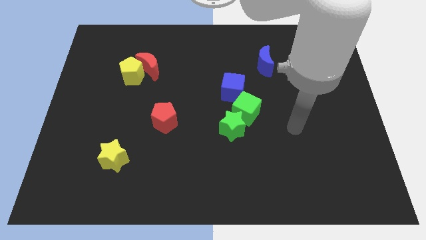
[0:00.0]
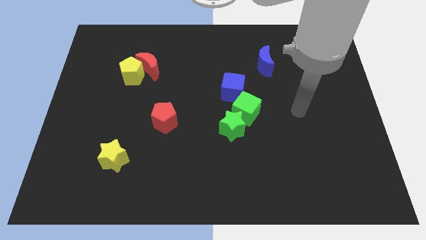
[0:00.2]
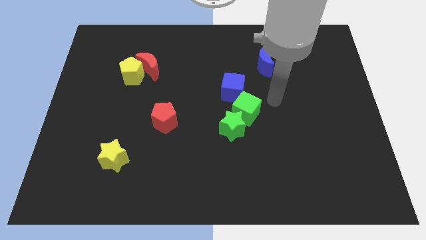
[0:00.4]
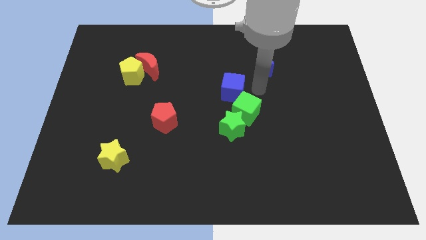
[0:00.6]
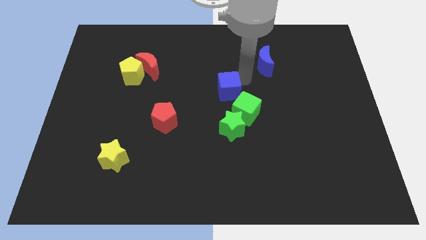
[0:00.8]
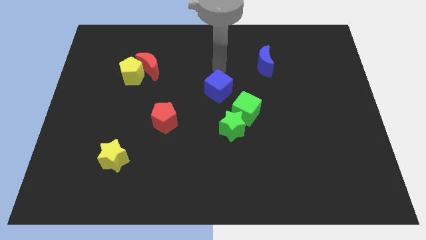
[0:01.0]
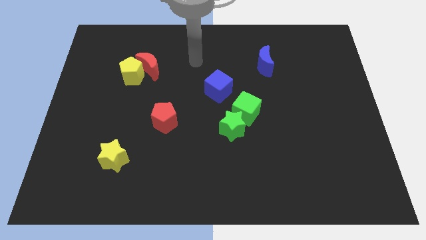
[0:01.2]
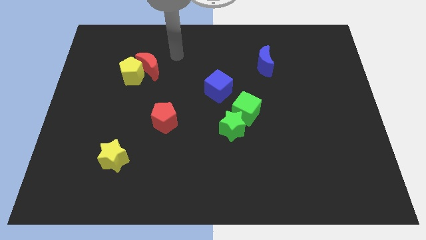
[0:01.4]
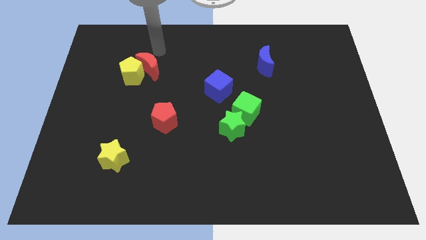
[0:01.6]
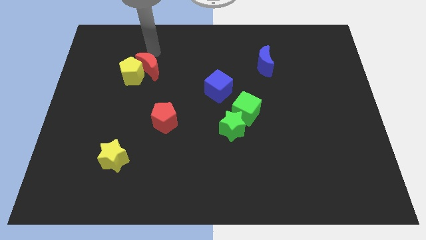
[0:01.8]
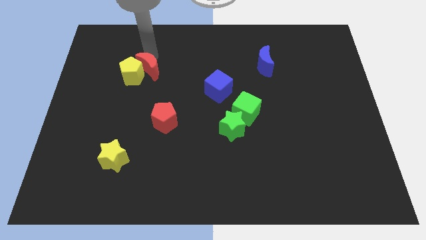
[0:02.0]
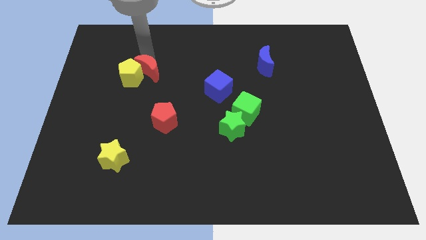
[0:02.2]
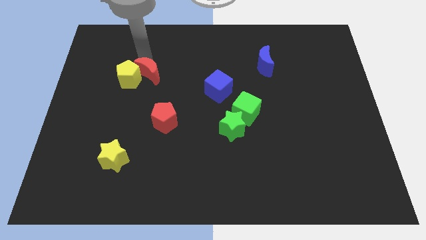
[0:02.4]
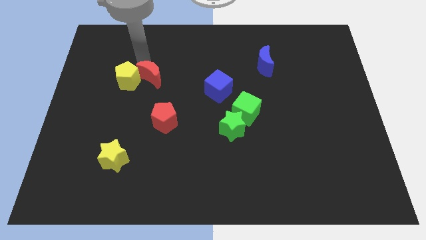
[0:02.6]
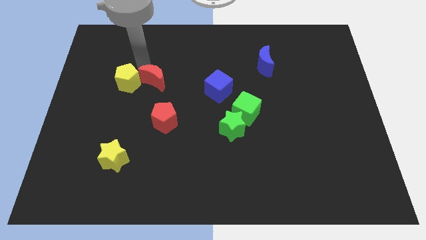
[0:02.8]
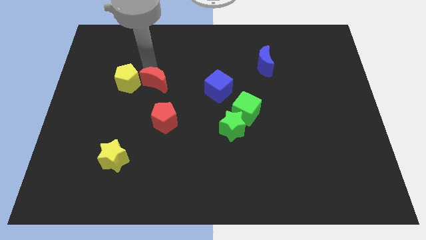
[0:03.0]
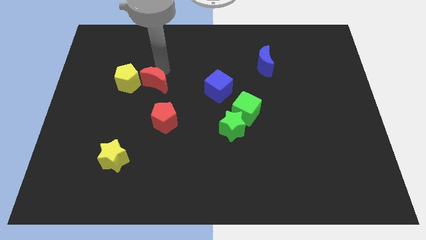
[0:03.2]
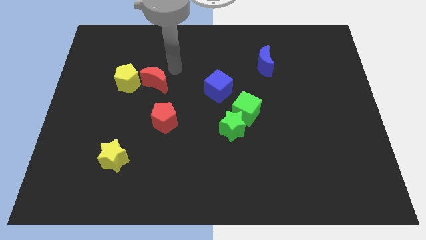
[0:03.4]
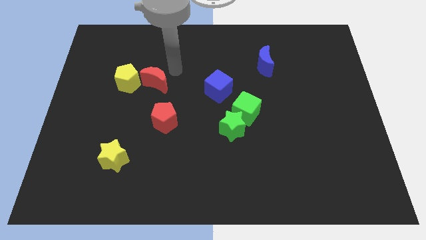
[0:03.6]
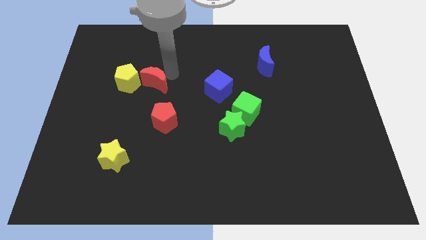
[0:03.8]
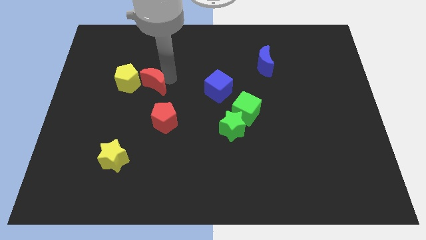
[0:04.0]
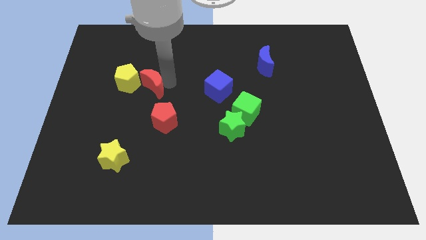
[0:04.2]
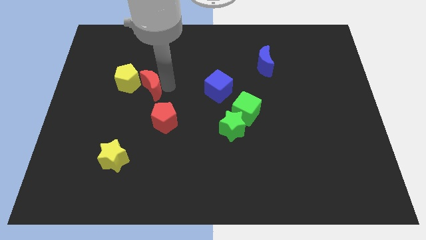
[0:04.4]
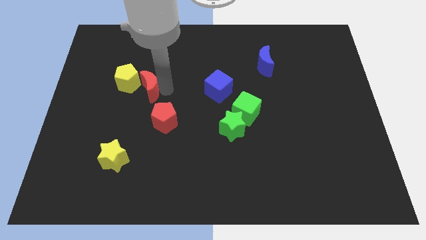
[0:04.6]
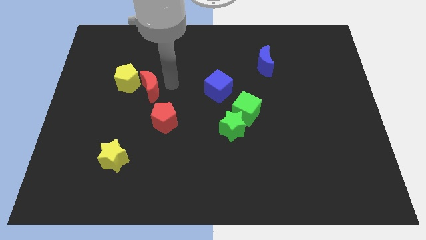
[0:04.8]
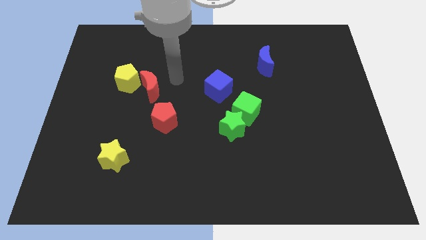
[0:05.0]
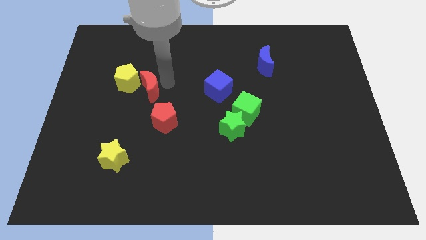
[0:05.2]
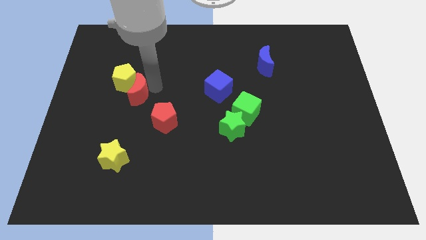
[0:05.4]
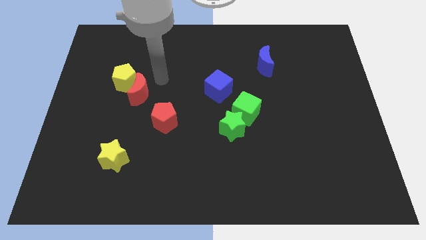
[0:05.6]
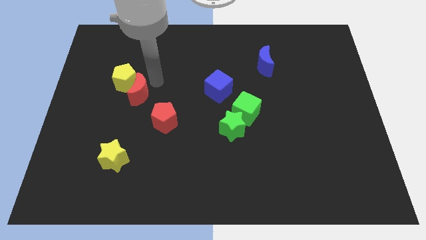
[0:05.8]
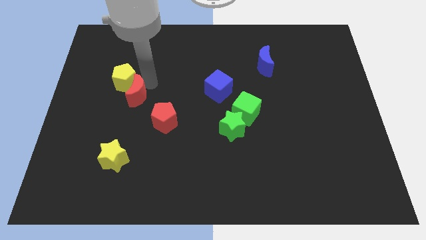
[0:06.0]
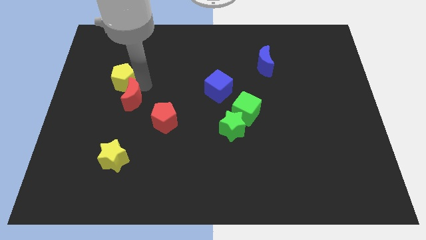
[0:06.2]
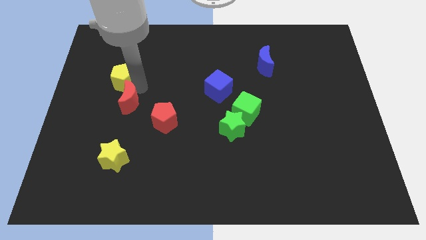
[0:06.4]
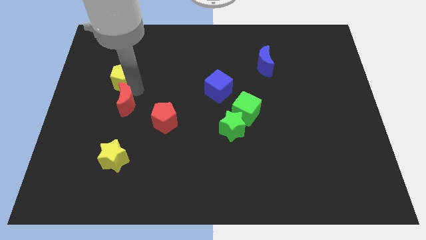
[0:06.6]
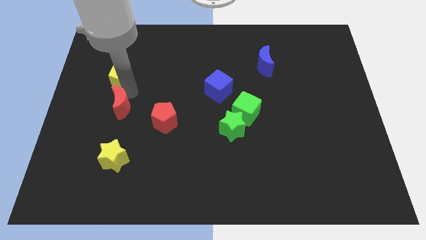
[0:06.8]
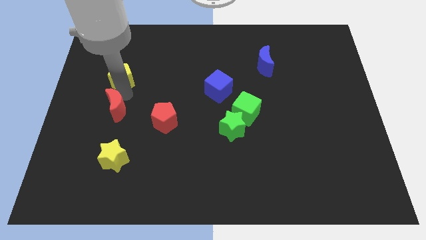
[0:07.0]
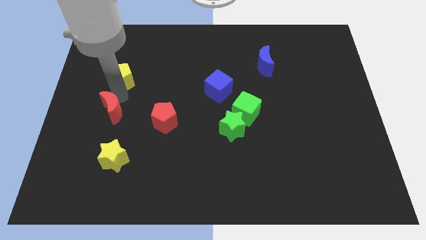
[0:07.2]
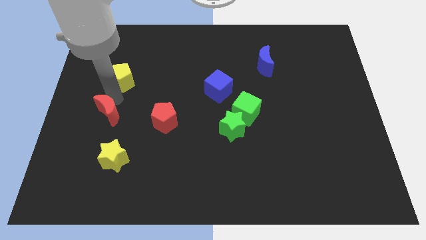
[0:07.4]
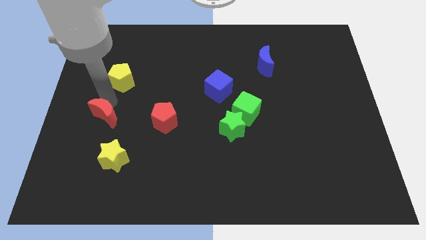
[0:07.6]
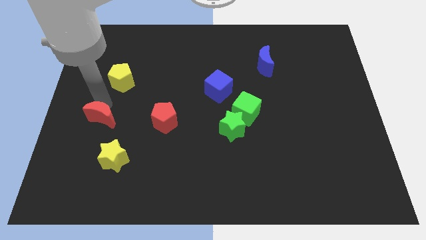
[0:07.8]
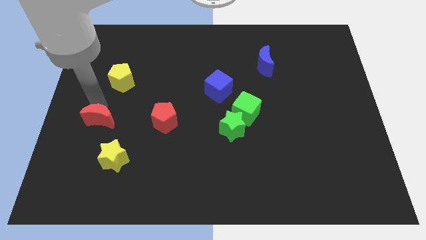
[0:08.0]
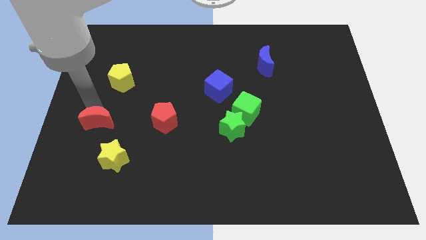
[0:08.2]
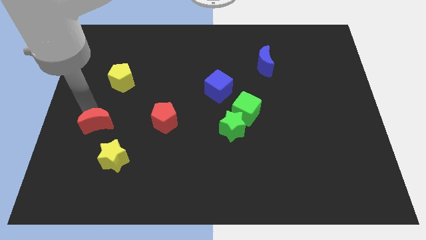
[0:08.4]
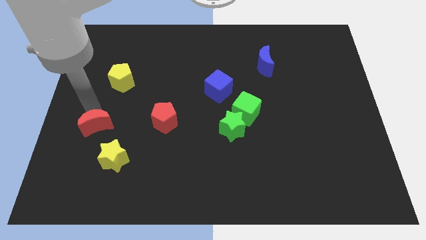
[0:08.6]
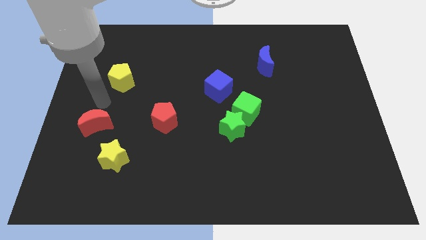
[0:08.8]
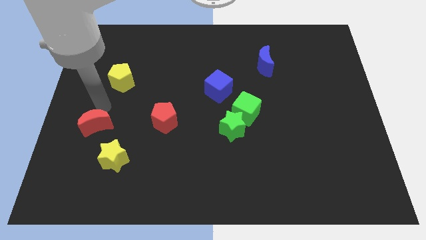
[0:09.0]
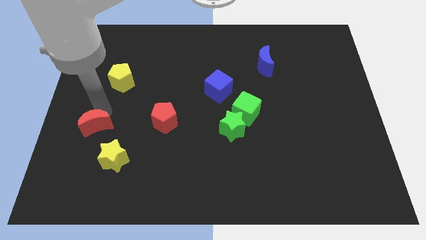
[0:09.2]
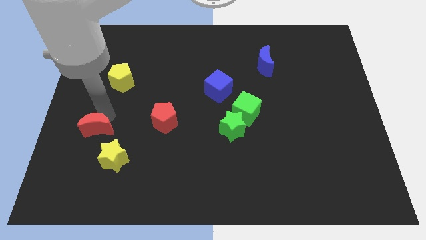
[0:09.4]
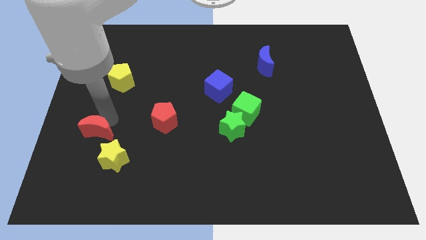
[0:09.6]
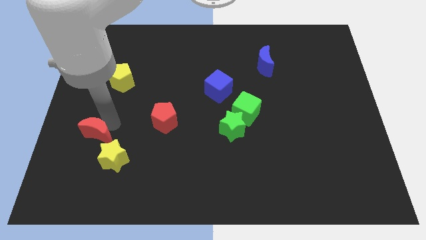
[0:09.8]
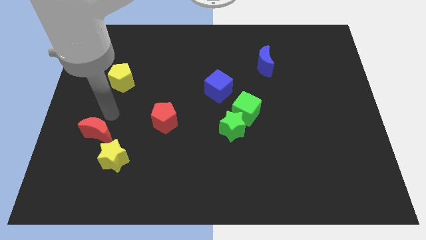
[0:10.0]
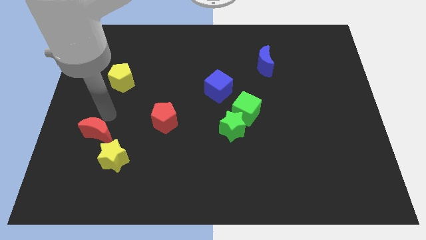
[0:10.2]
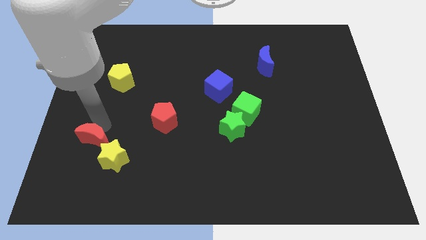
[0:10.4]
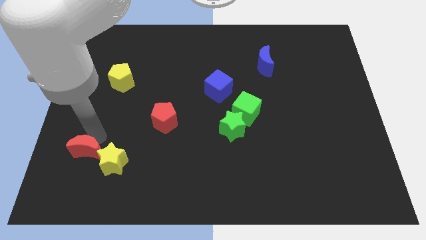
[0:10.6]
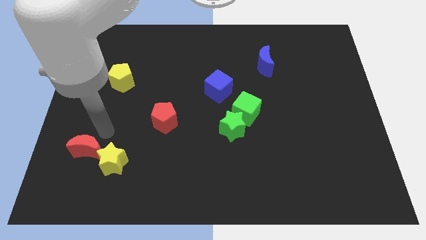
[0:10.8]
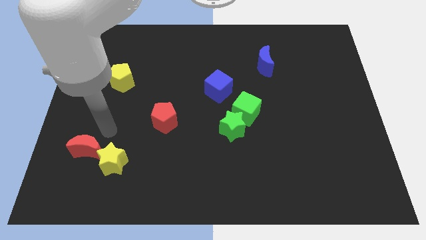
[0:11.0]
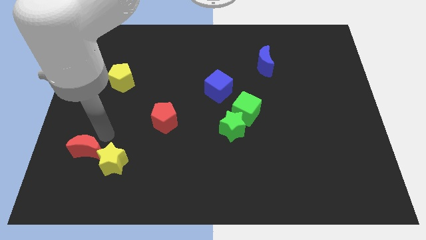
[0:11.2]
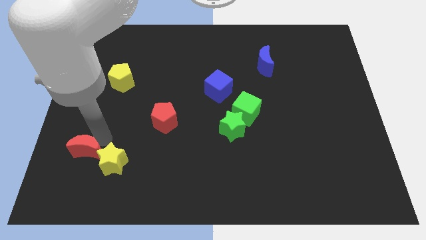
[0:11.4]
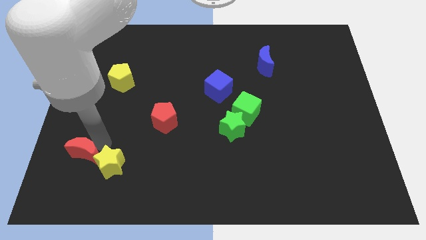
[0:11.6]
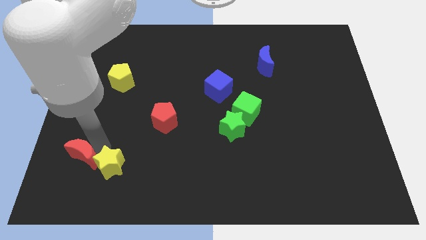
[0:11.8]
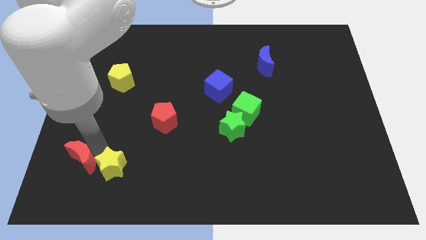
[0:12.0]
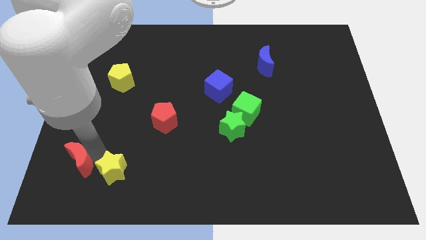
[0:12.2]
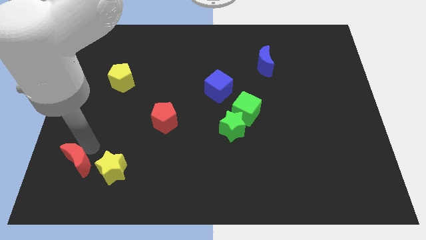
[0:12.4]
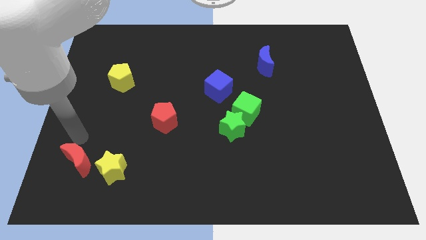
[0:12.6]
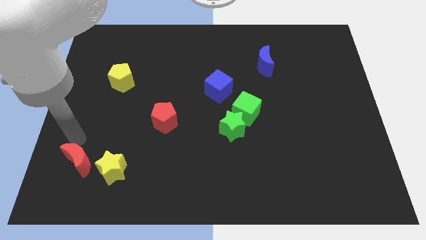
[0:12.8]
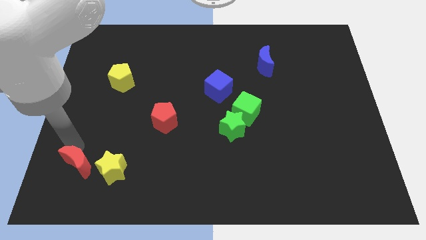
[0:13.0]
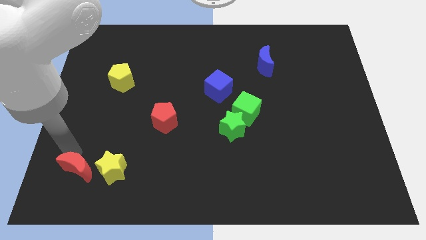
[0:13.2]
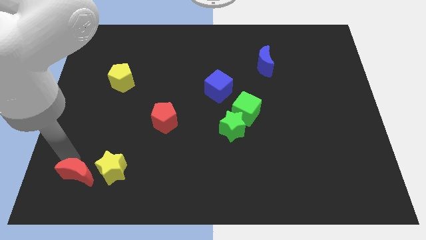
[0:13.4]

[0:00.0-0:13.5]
put the red moon to the bottom left of the yellow star

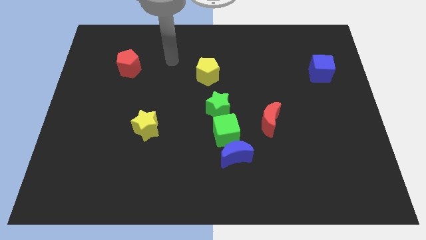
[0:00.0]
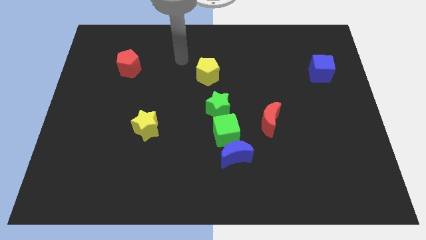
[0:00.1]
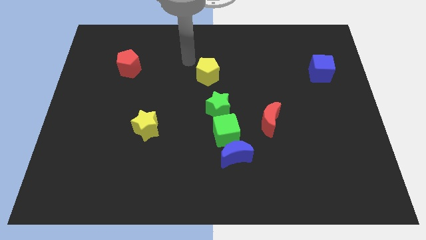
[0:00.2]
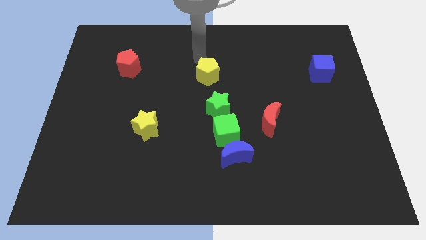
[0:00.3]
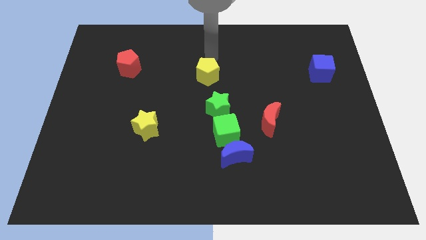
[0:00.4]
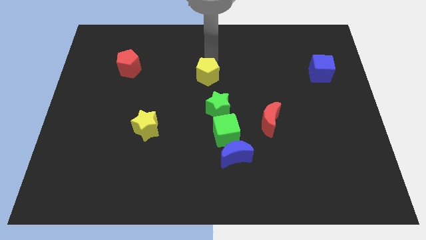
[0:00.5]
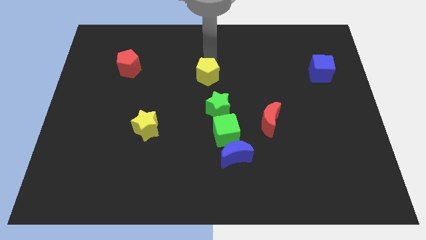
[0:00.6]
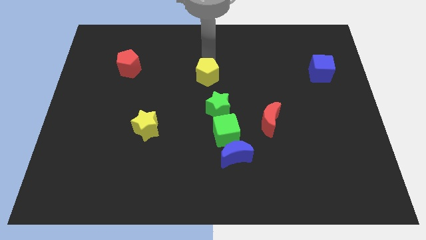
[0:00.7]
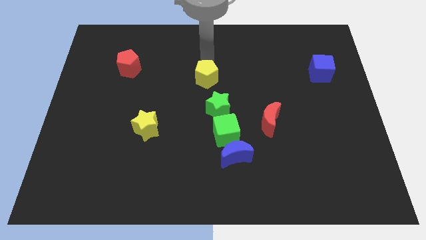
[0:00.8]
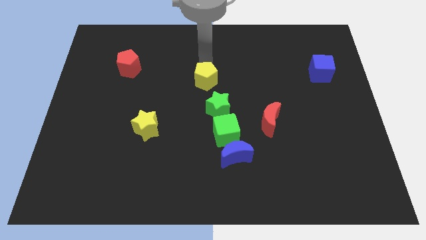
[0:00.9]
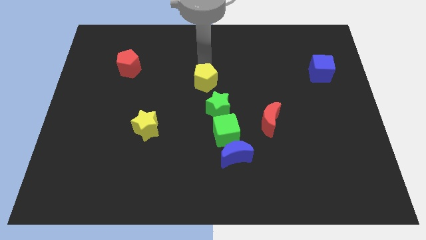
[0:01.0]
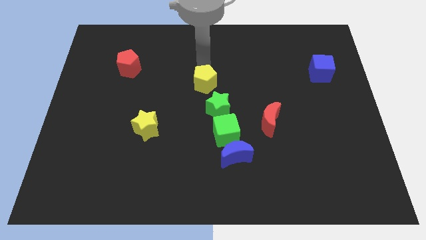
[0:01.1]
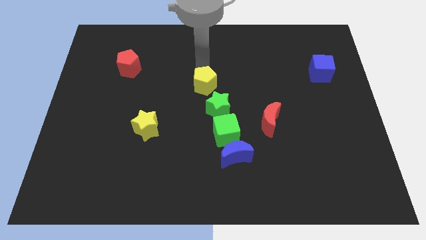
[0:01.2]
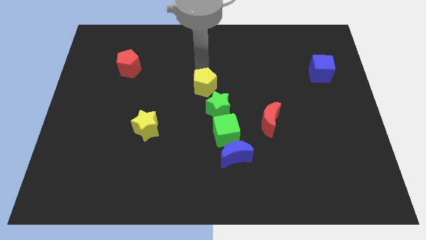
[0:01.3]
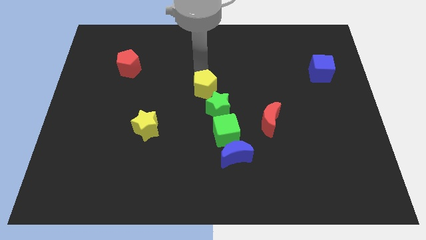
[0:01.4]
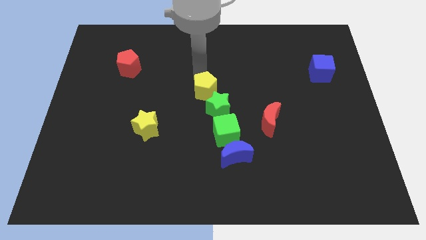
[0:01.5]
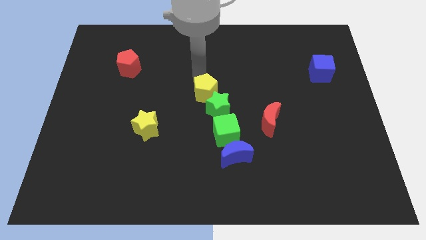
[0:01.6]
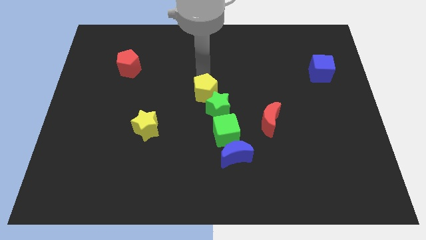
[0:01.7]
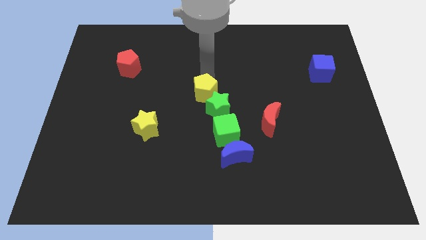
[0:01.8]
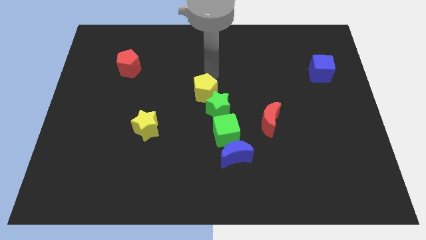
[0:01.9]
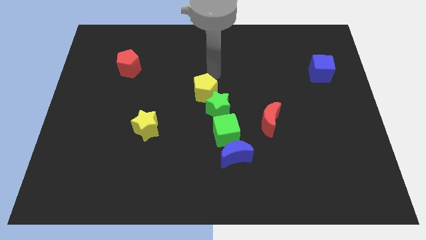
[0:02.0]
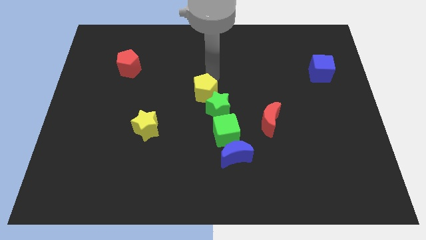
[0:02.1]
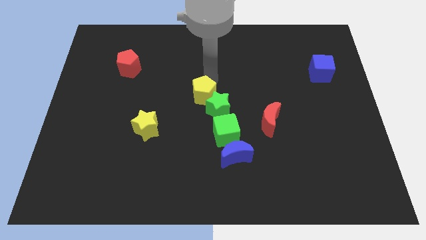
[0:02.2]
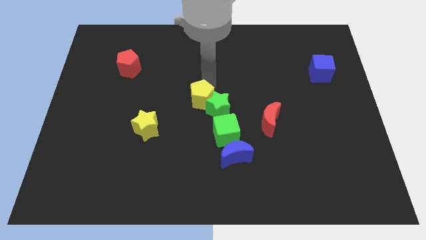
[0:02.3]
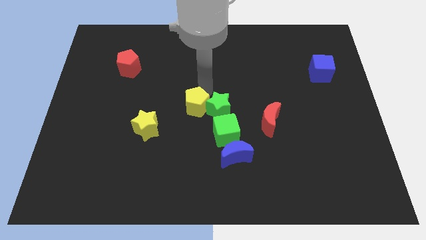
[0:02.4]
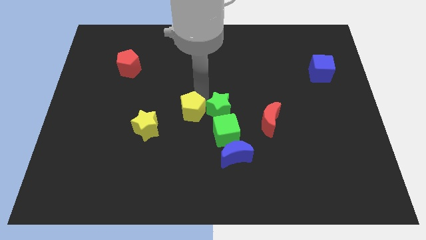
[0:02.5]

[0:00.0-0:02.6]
push the yellow pentagon to the right side of the yellow star
